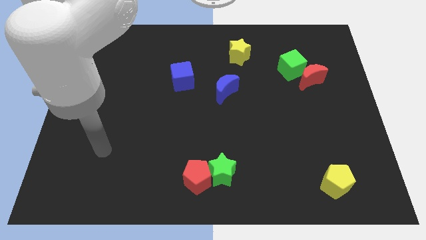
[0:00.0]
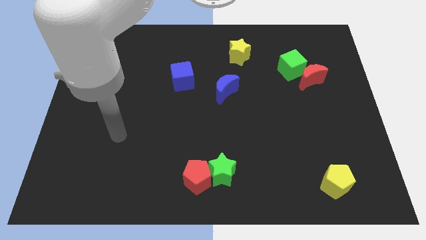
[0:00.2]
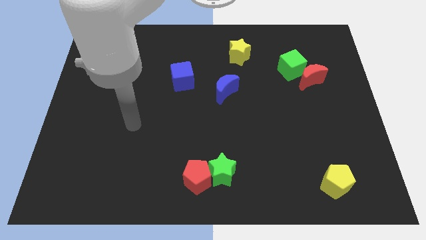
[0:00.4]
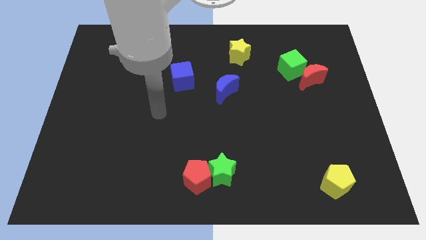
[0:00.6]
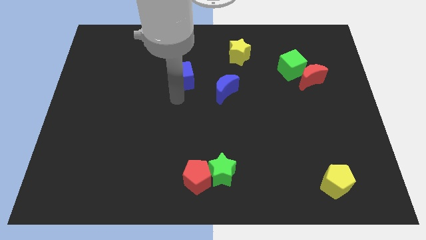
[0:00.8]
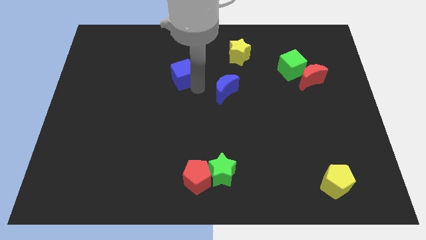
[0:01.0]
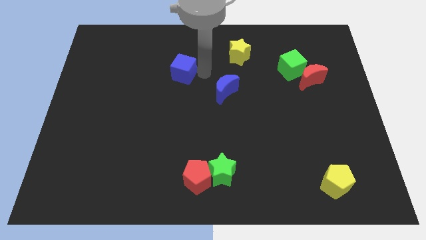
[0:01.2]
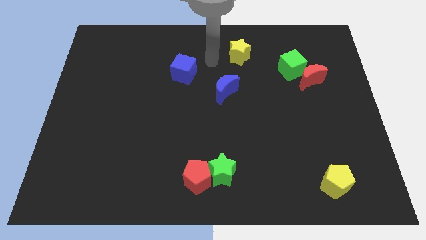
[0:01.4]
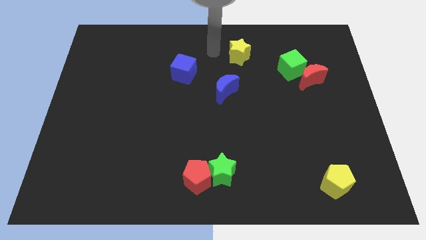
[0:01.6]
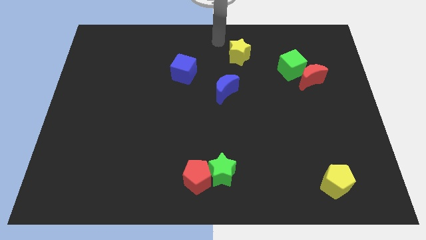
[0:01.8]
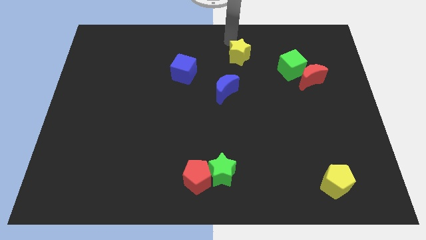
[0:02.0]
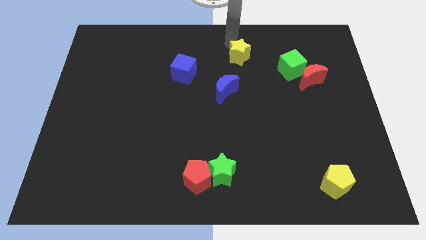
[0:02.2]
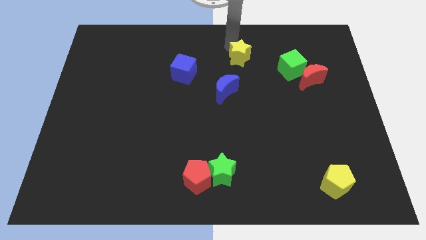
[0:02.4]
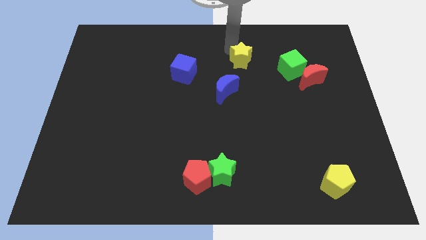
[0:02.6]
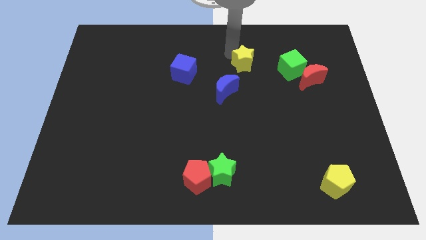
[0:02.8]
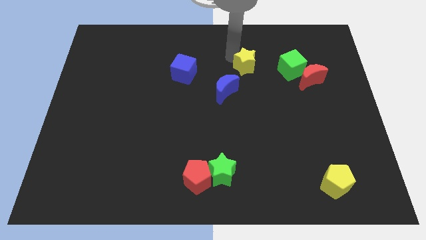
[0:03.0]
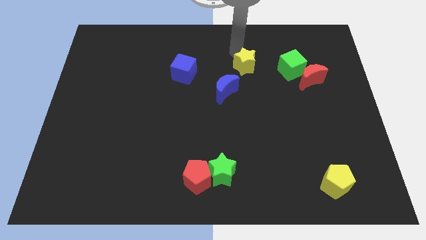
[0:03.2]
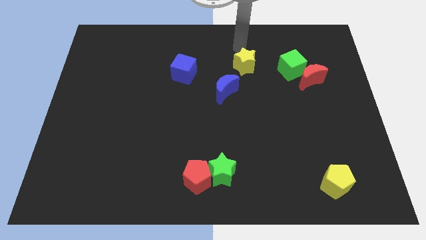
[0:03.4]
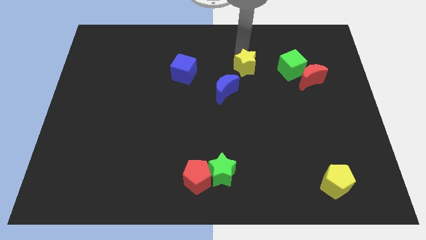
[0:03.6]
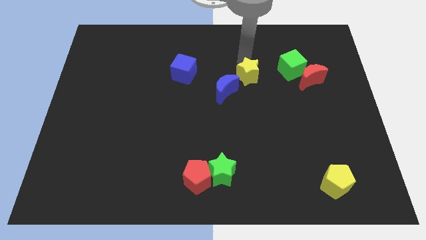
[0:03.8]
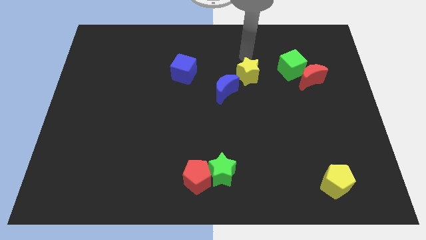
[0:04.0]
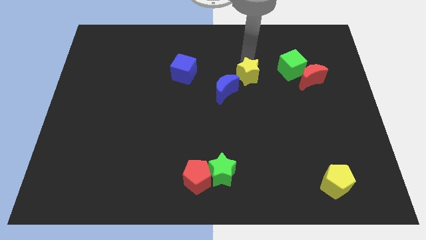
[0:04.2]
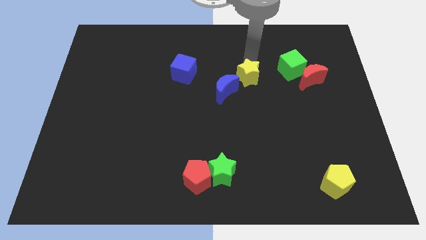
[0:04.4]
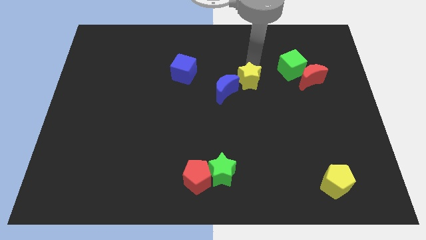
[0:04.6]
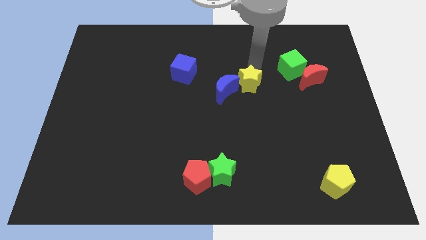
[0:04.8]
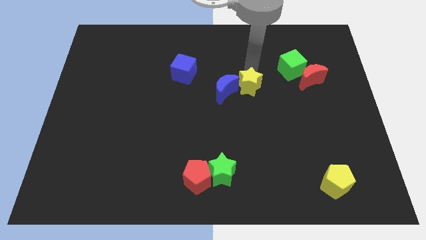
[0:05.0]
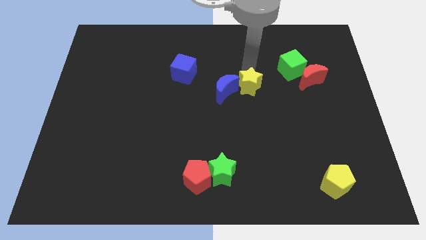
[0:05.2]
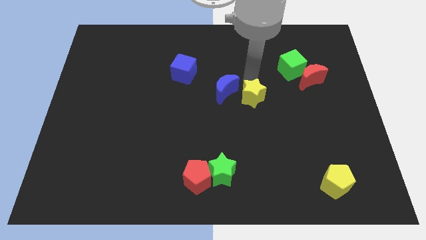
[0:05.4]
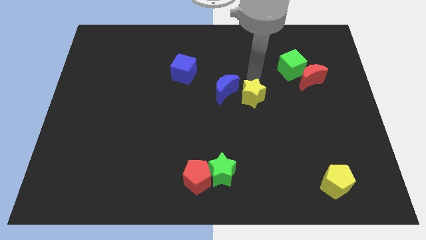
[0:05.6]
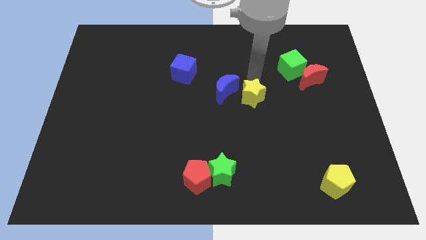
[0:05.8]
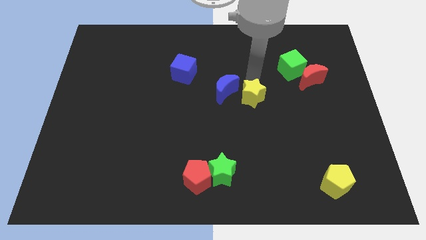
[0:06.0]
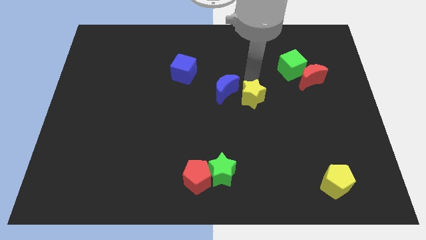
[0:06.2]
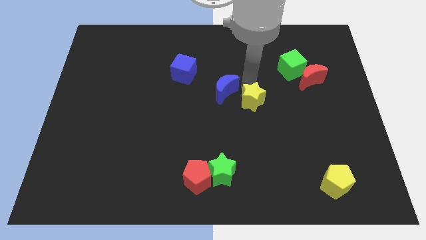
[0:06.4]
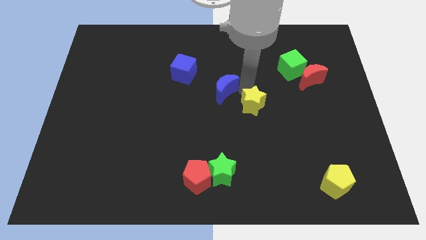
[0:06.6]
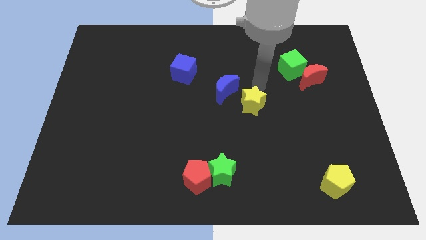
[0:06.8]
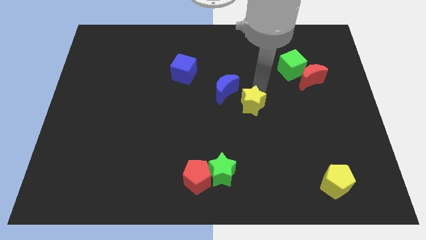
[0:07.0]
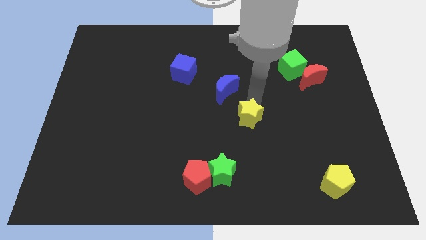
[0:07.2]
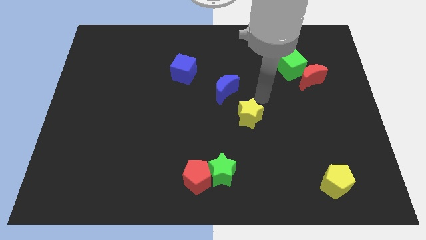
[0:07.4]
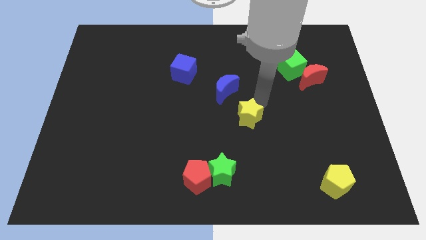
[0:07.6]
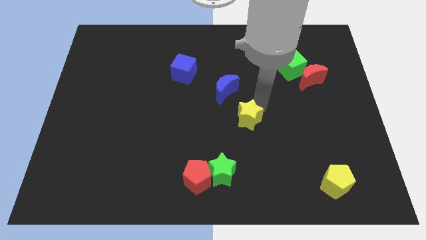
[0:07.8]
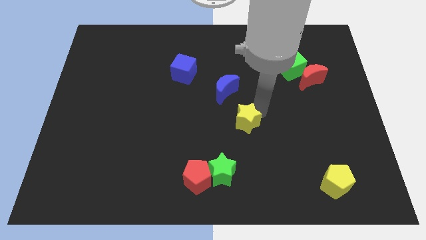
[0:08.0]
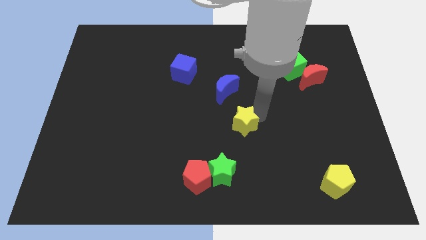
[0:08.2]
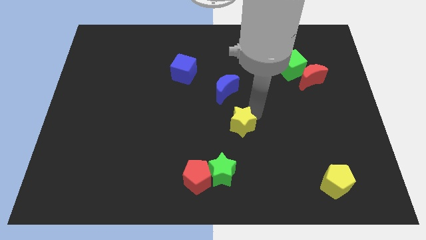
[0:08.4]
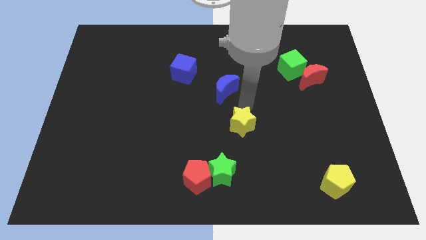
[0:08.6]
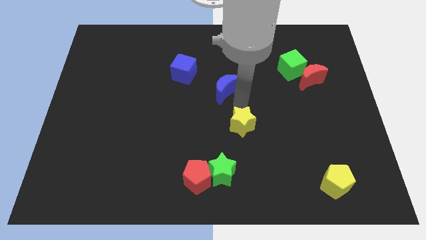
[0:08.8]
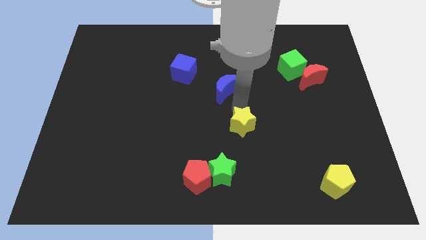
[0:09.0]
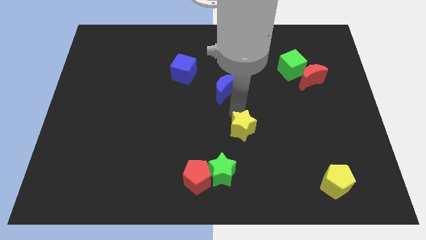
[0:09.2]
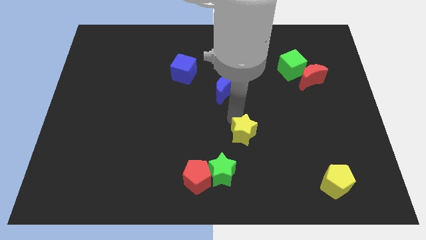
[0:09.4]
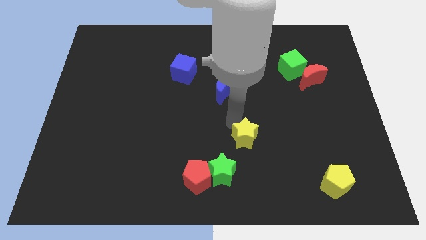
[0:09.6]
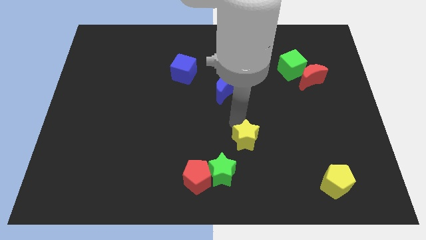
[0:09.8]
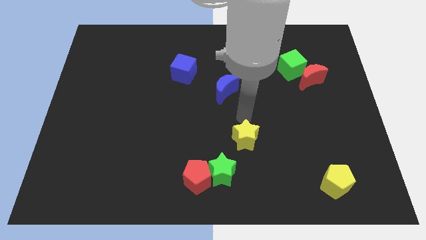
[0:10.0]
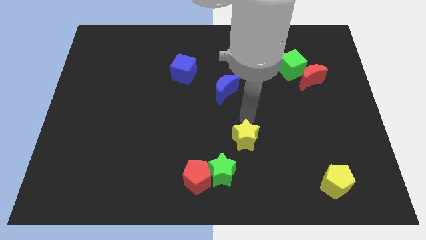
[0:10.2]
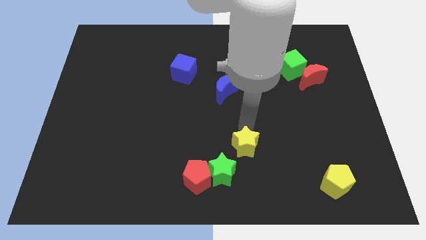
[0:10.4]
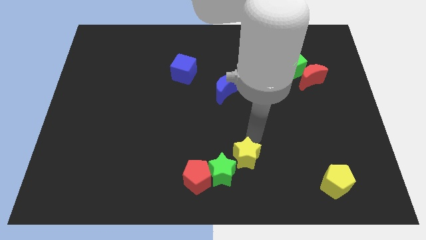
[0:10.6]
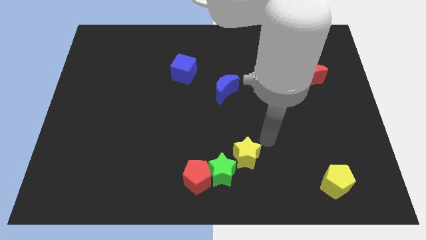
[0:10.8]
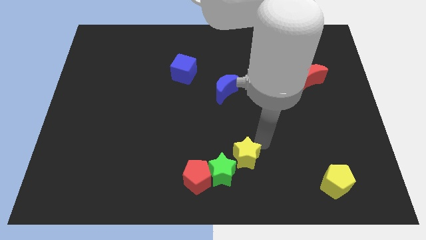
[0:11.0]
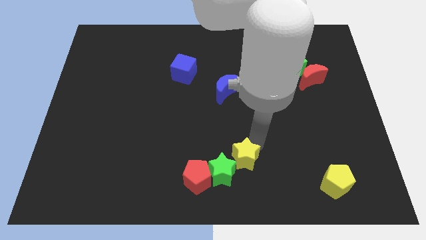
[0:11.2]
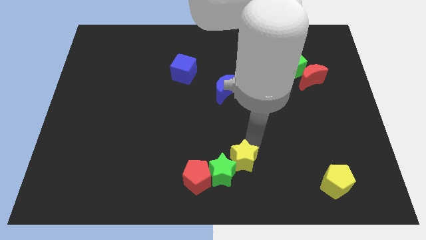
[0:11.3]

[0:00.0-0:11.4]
push the yellow star close to the green star

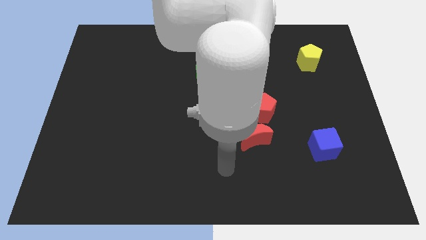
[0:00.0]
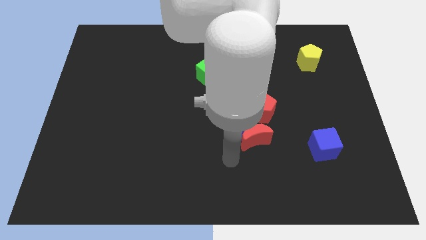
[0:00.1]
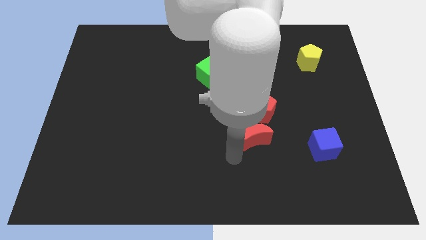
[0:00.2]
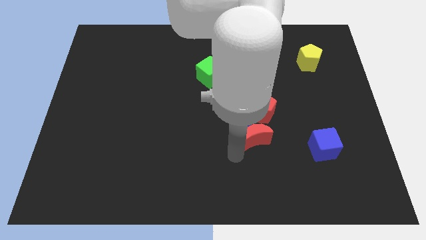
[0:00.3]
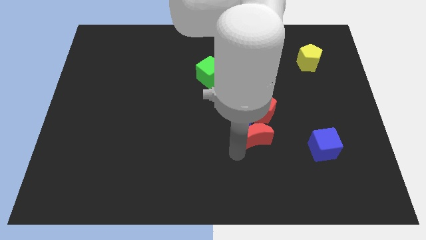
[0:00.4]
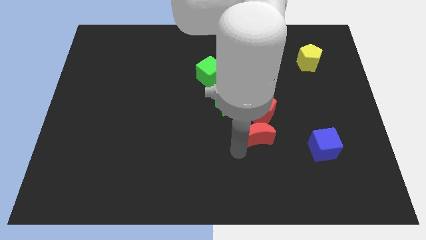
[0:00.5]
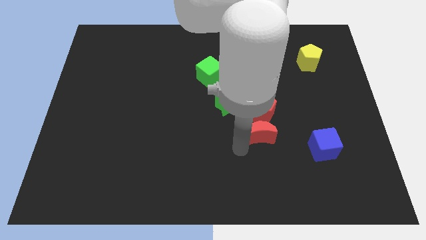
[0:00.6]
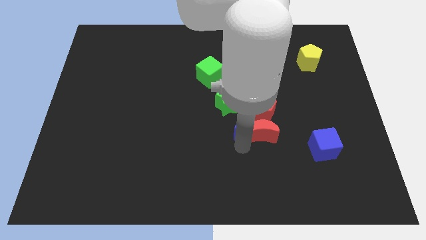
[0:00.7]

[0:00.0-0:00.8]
move the red moon to the red pentagon

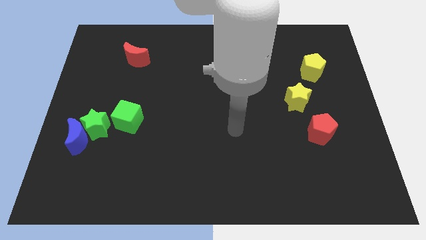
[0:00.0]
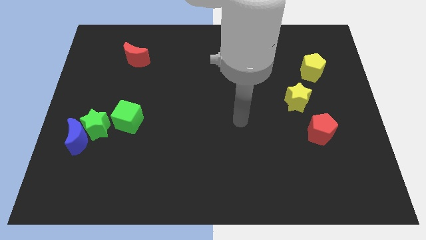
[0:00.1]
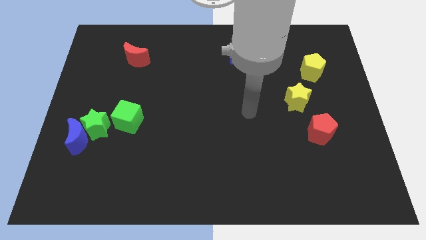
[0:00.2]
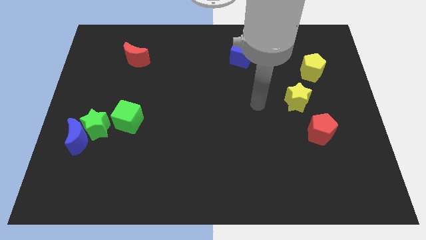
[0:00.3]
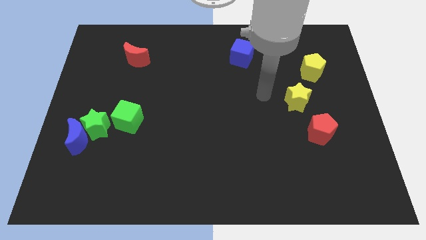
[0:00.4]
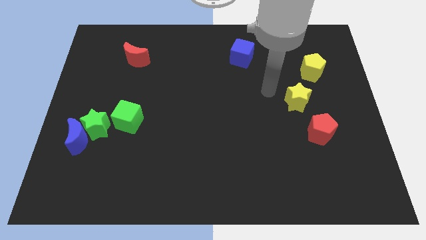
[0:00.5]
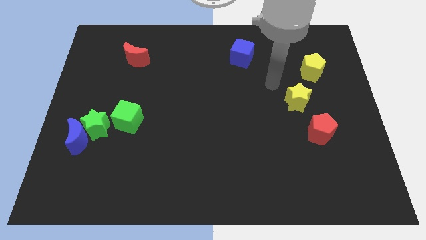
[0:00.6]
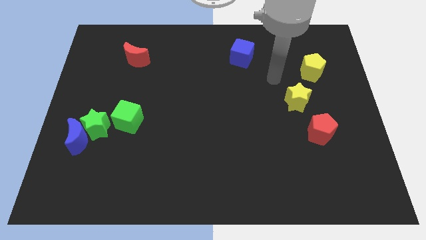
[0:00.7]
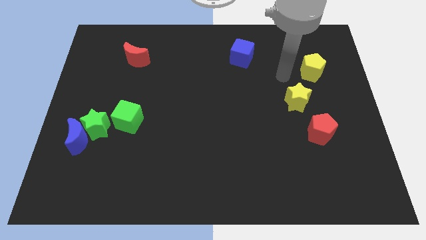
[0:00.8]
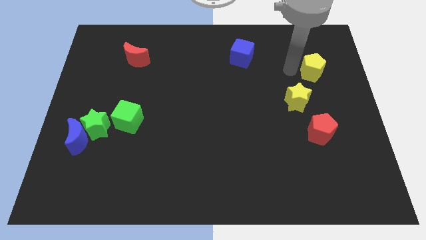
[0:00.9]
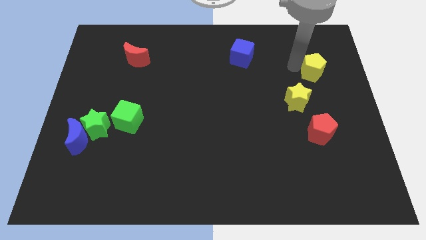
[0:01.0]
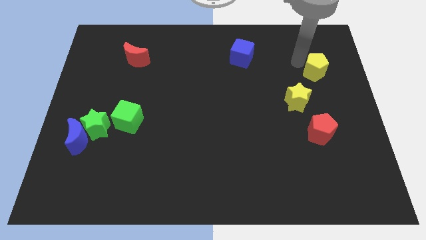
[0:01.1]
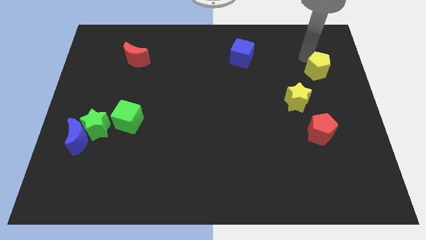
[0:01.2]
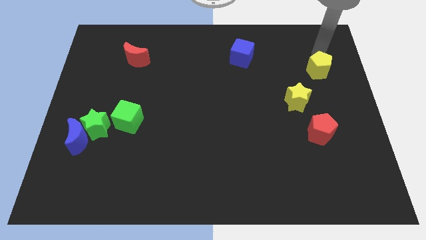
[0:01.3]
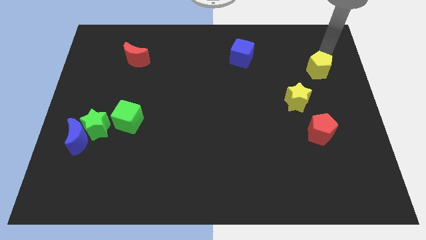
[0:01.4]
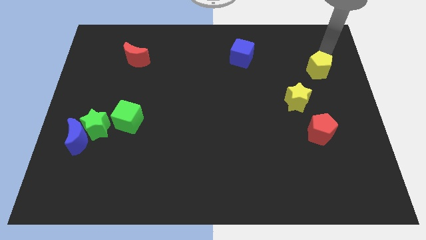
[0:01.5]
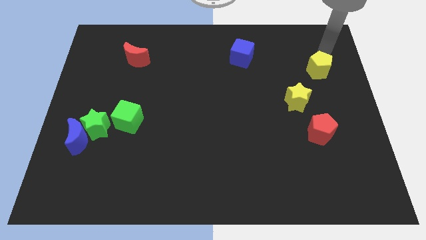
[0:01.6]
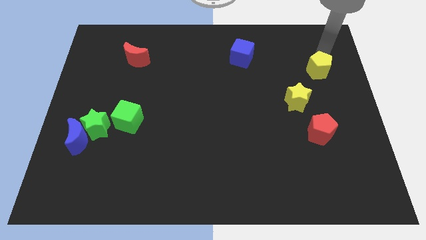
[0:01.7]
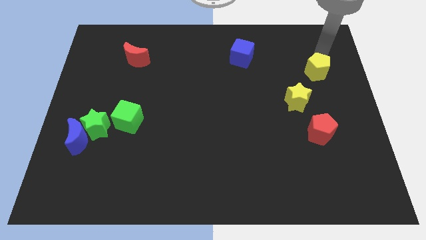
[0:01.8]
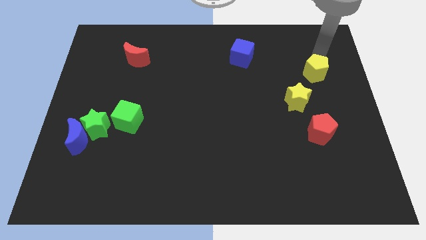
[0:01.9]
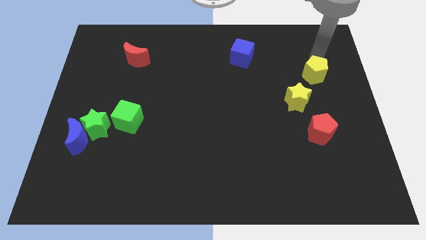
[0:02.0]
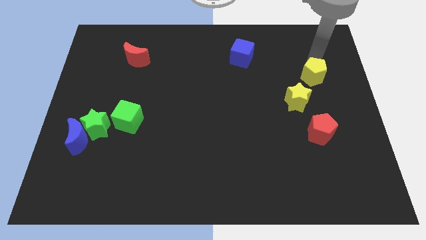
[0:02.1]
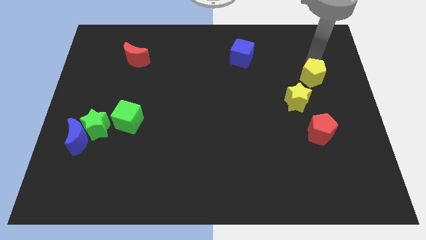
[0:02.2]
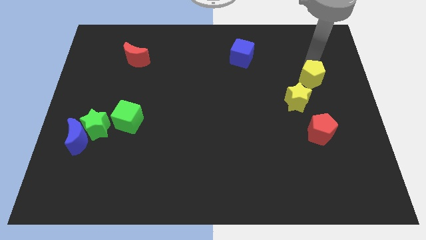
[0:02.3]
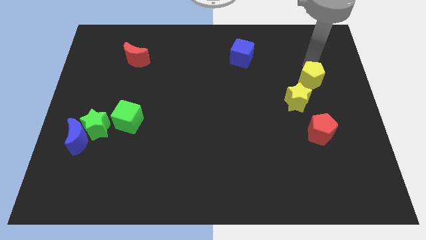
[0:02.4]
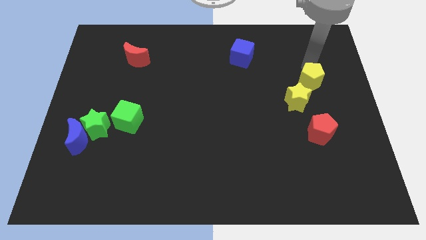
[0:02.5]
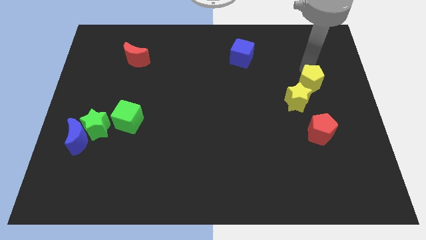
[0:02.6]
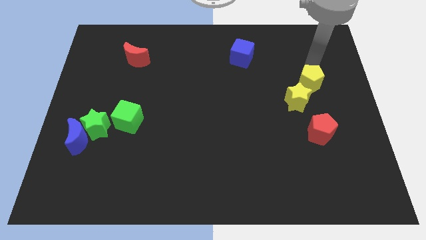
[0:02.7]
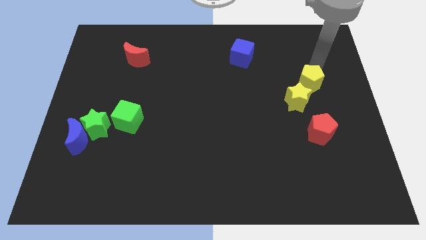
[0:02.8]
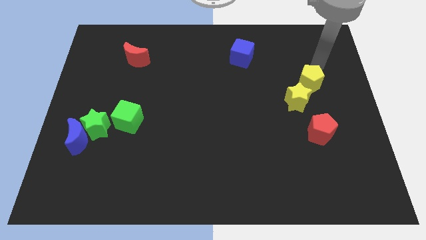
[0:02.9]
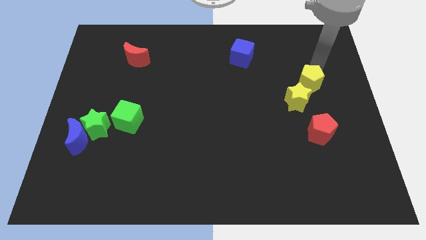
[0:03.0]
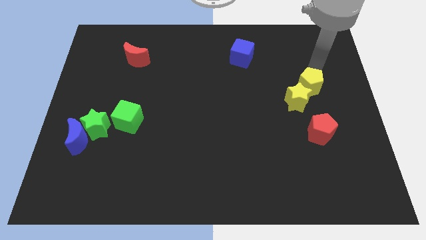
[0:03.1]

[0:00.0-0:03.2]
push the yellow pentagon next to the yellow star
